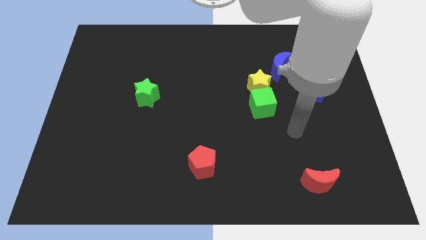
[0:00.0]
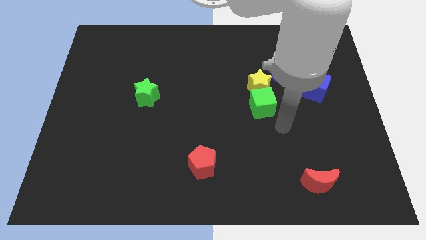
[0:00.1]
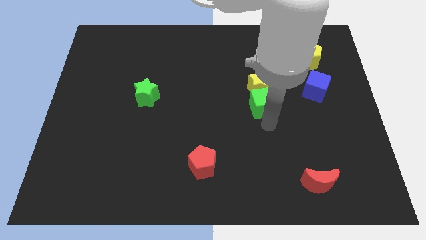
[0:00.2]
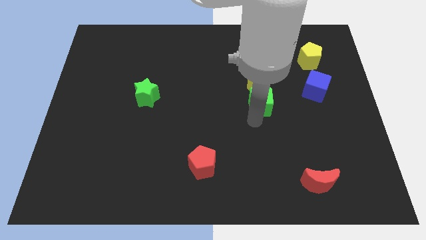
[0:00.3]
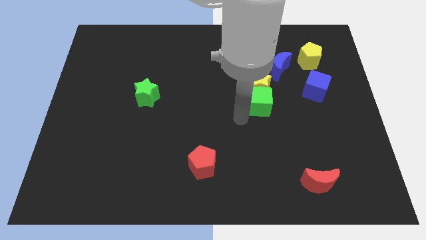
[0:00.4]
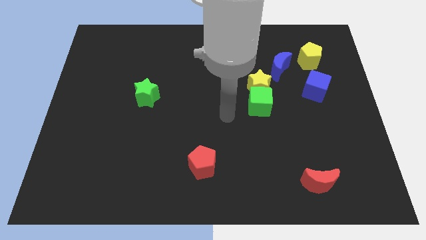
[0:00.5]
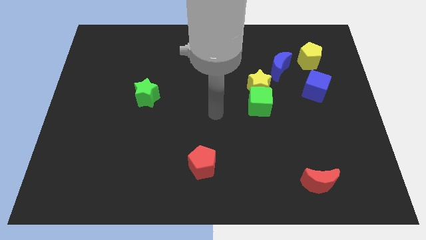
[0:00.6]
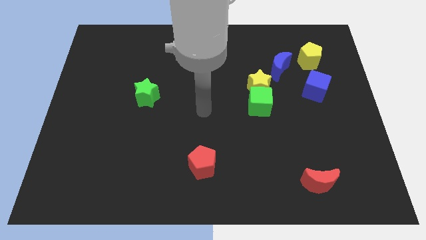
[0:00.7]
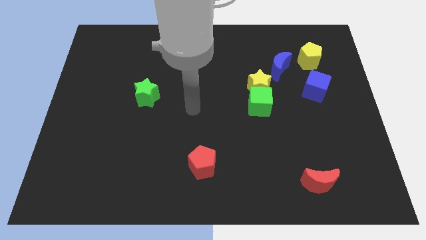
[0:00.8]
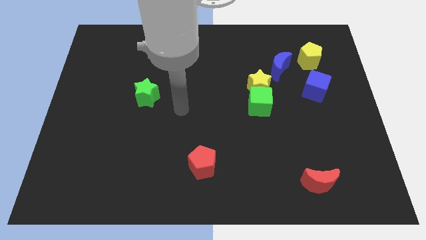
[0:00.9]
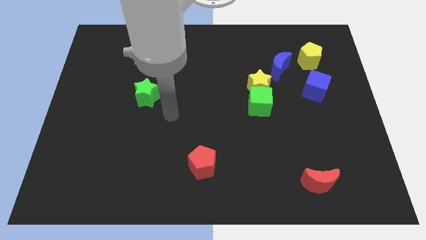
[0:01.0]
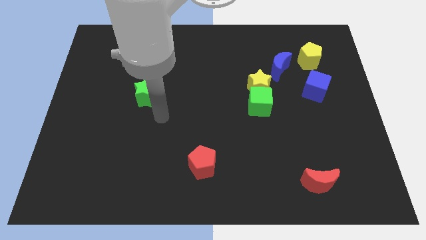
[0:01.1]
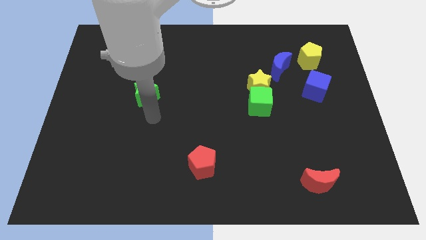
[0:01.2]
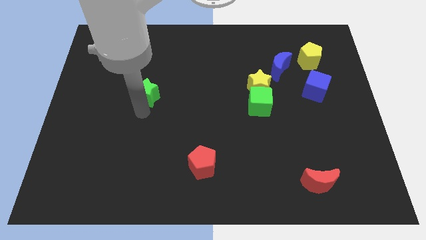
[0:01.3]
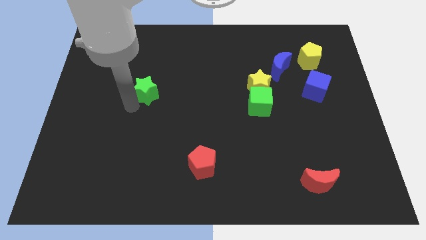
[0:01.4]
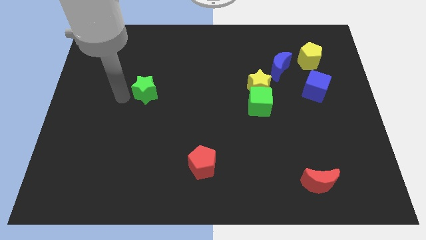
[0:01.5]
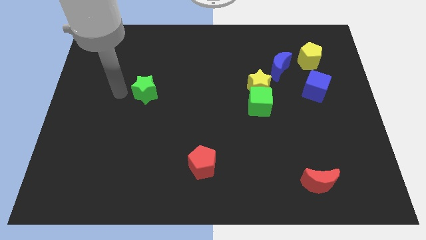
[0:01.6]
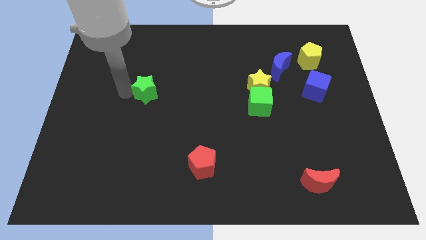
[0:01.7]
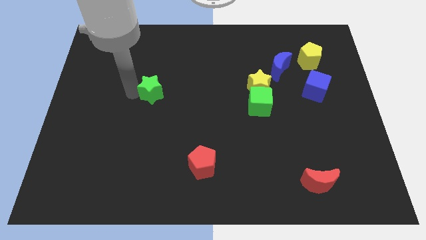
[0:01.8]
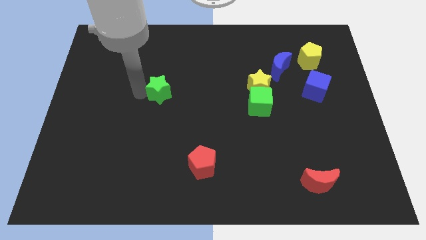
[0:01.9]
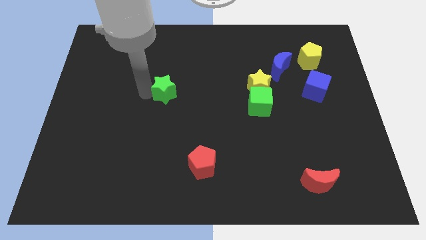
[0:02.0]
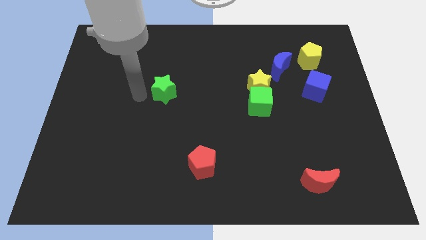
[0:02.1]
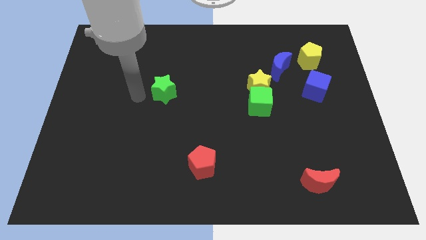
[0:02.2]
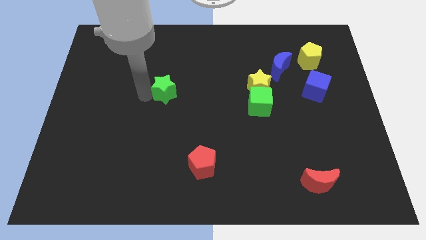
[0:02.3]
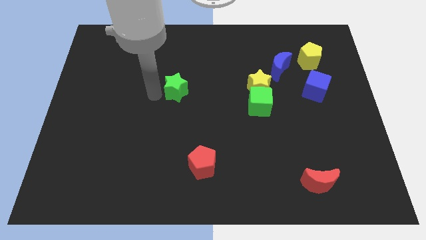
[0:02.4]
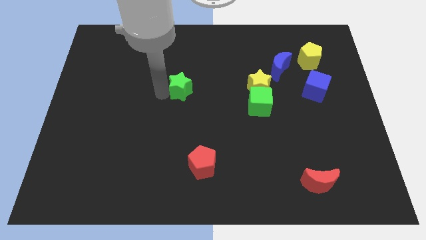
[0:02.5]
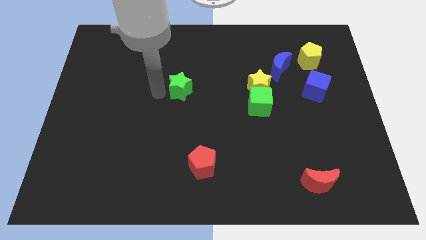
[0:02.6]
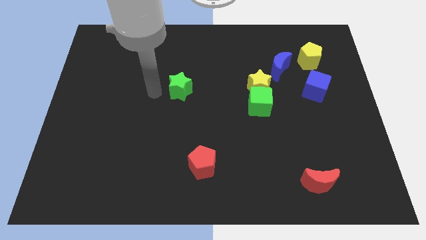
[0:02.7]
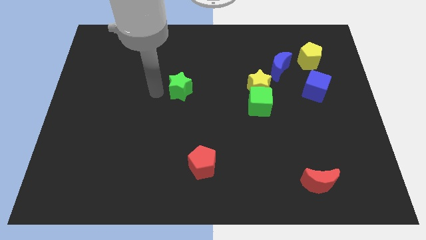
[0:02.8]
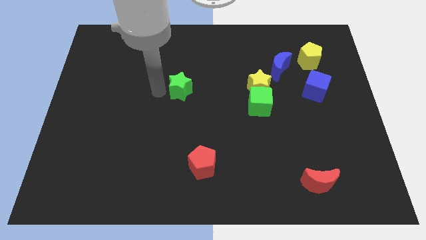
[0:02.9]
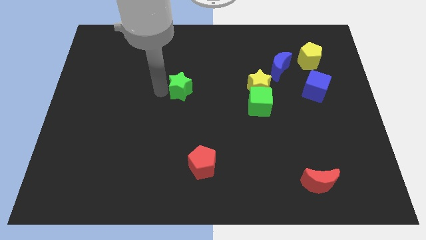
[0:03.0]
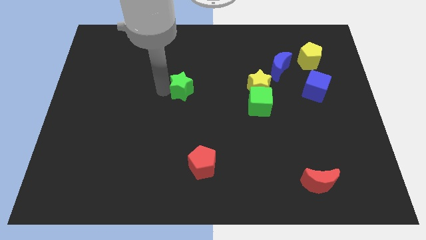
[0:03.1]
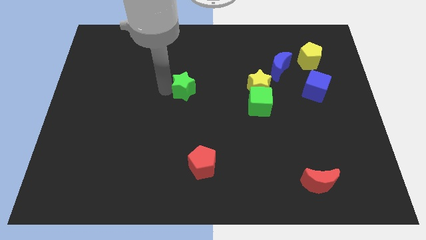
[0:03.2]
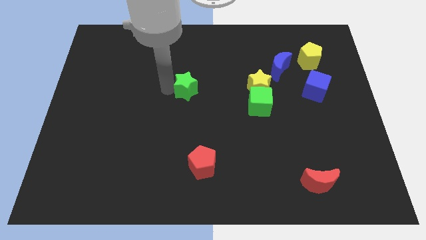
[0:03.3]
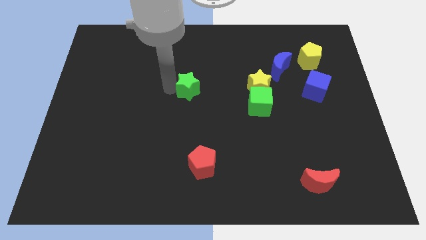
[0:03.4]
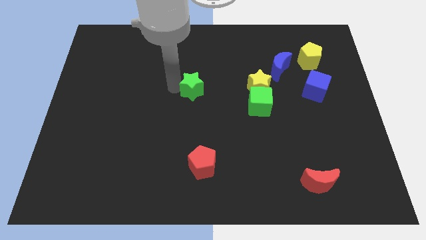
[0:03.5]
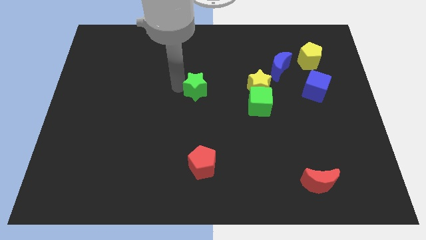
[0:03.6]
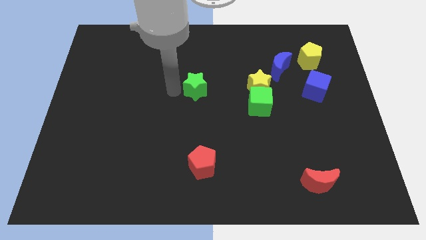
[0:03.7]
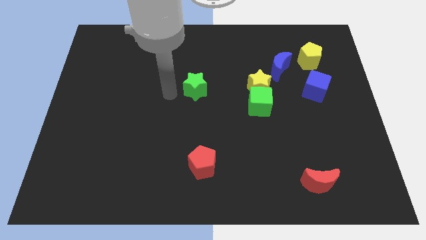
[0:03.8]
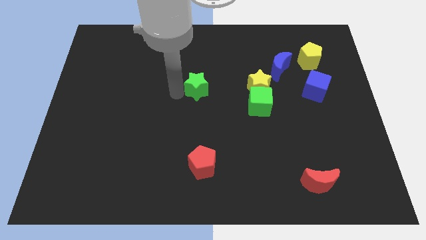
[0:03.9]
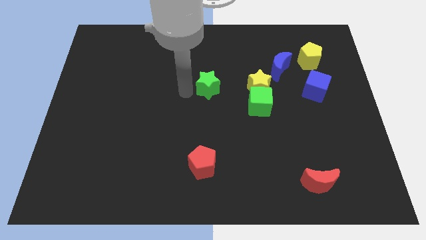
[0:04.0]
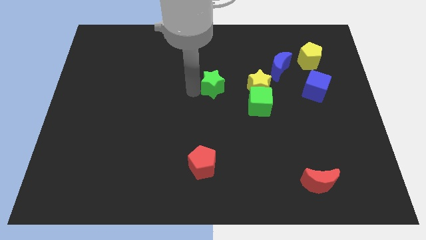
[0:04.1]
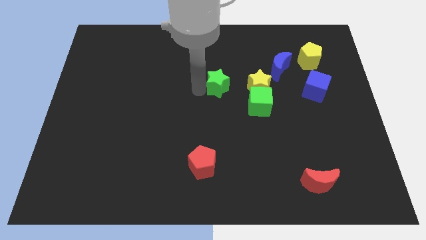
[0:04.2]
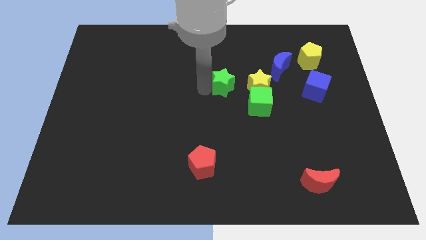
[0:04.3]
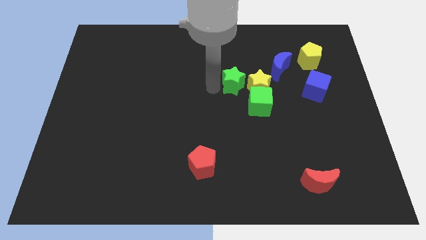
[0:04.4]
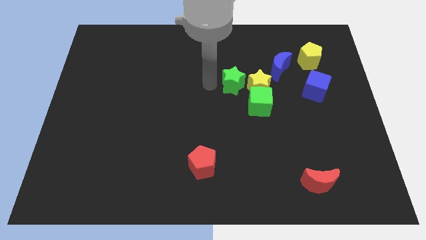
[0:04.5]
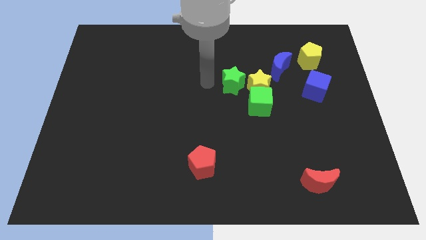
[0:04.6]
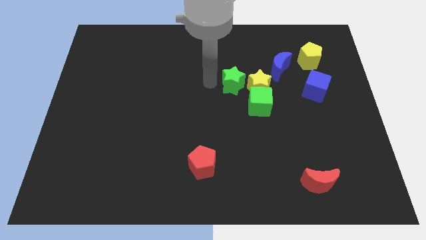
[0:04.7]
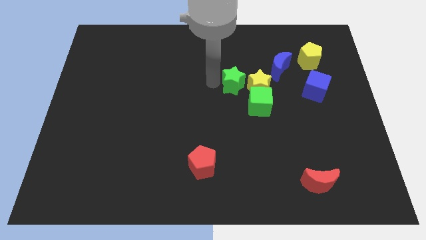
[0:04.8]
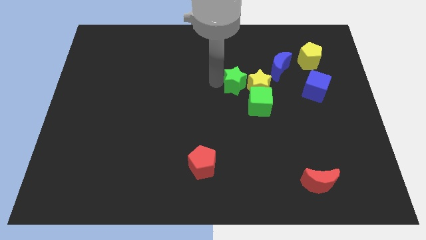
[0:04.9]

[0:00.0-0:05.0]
push the green star towards the yellow star

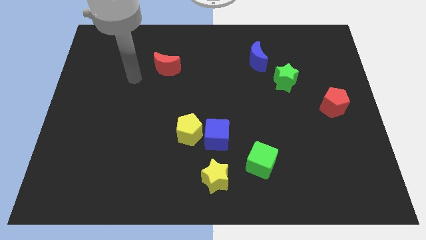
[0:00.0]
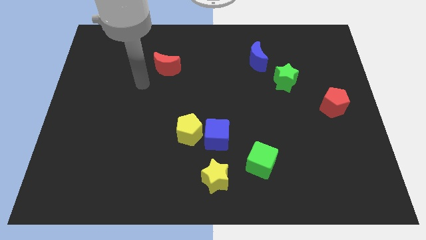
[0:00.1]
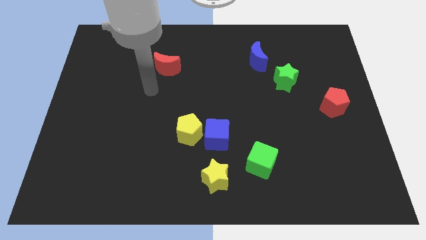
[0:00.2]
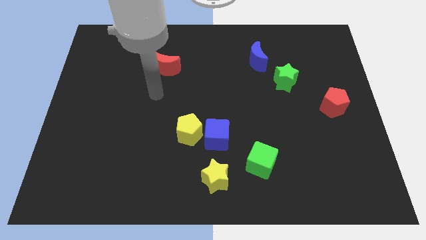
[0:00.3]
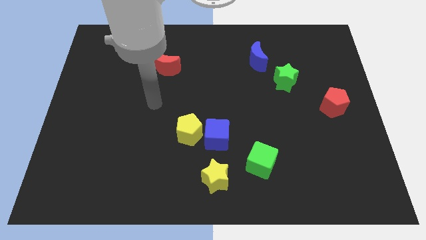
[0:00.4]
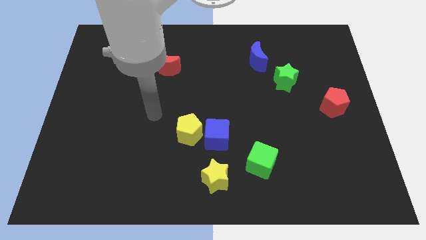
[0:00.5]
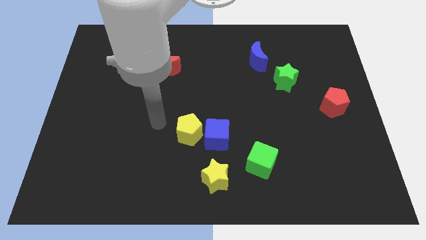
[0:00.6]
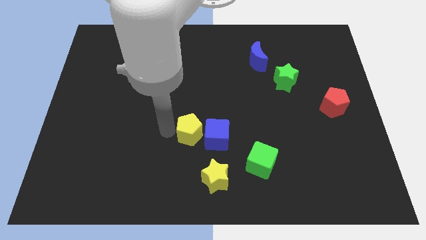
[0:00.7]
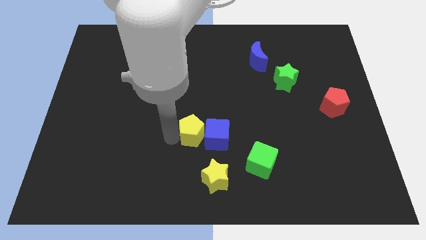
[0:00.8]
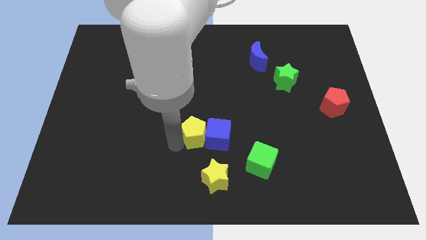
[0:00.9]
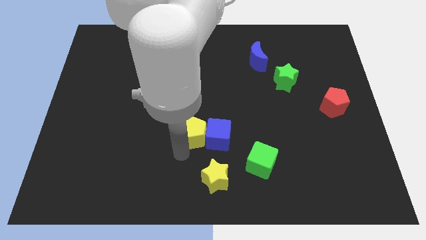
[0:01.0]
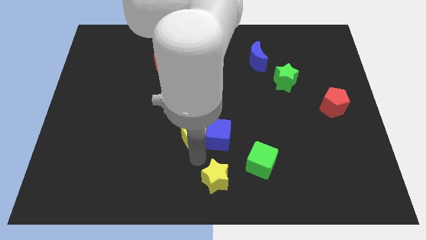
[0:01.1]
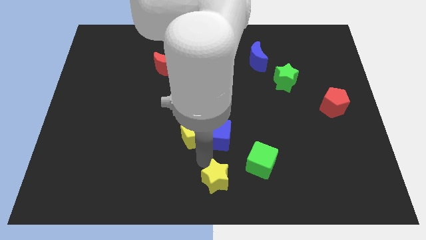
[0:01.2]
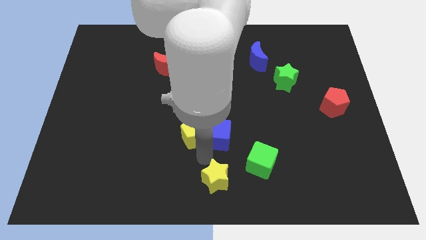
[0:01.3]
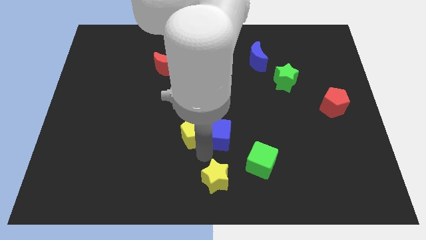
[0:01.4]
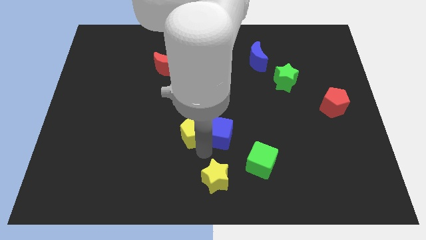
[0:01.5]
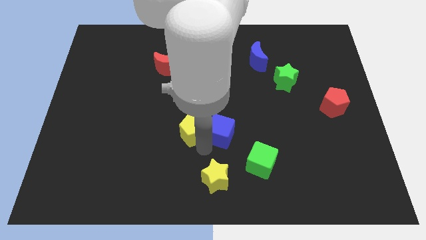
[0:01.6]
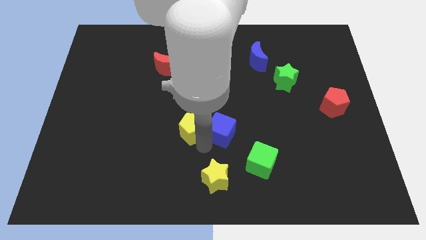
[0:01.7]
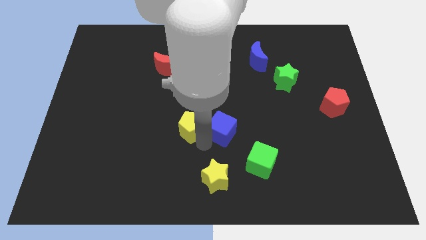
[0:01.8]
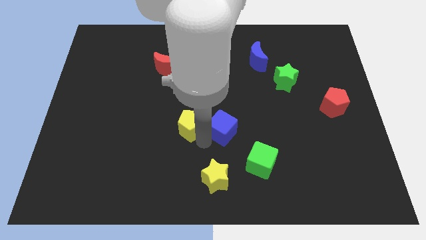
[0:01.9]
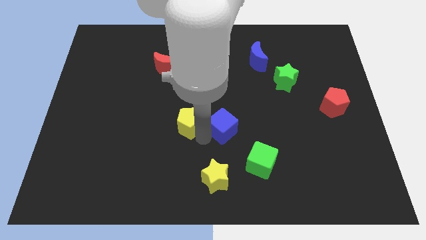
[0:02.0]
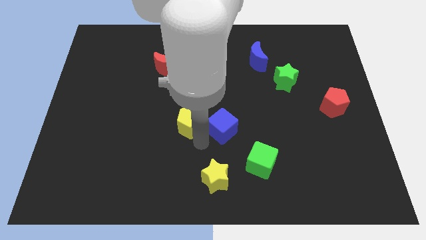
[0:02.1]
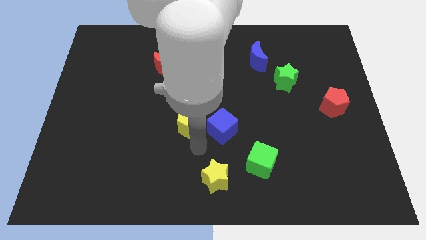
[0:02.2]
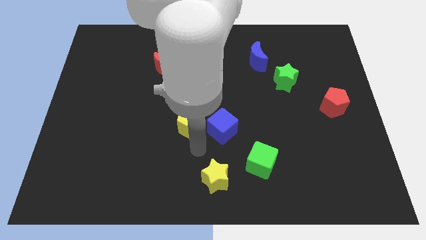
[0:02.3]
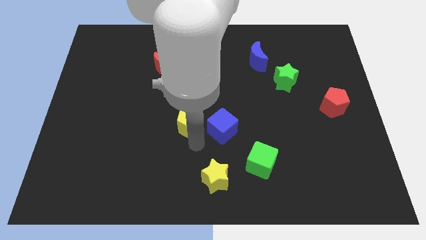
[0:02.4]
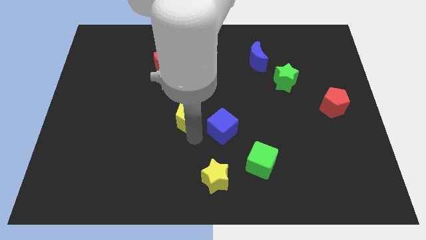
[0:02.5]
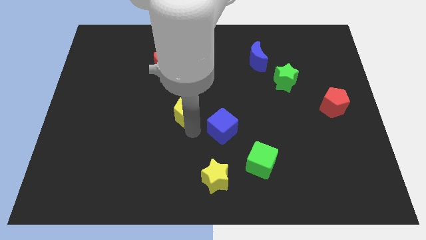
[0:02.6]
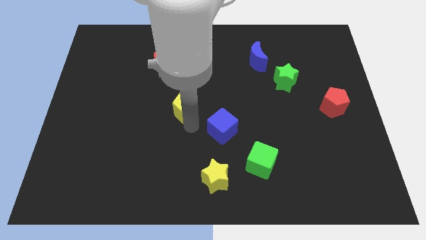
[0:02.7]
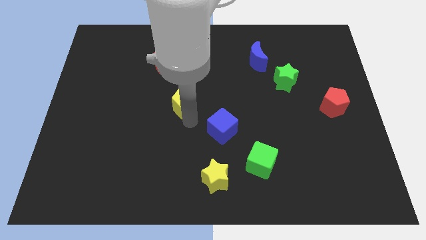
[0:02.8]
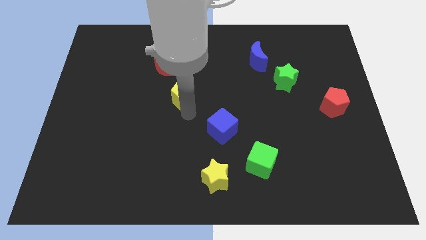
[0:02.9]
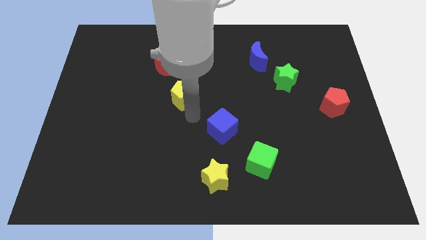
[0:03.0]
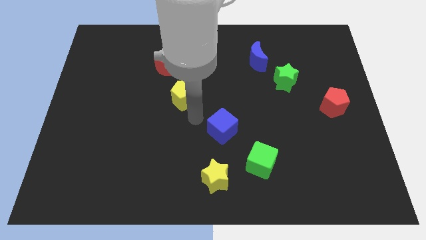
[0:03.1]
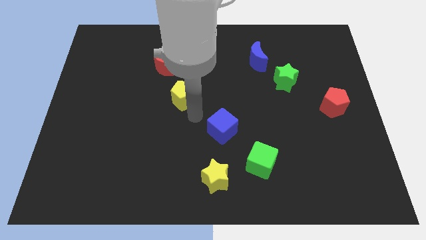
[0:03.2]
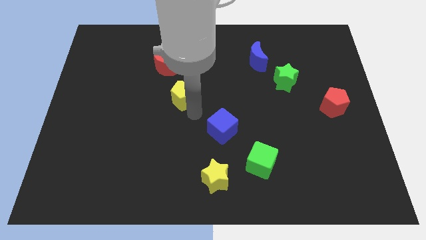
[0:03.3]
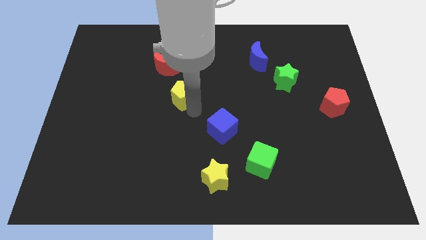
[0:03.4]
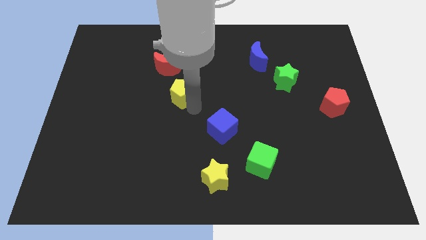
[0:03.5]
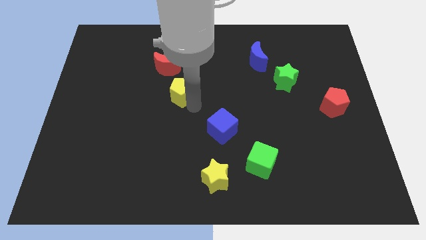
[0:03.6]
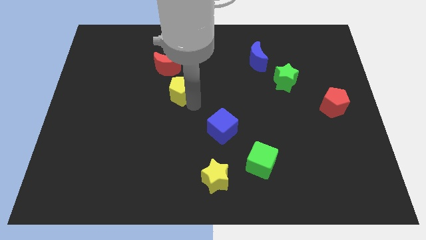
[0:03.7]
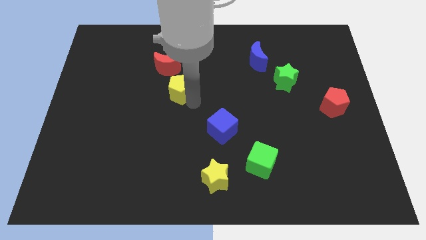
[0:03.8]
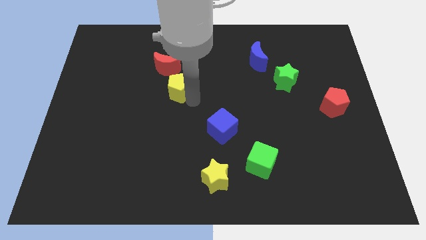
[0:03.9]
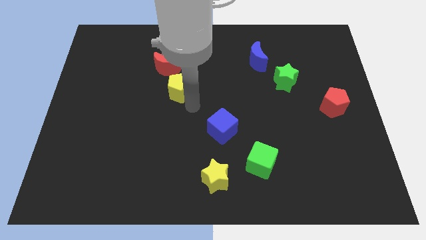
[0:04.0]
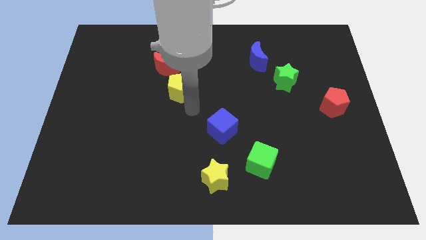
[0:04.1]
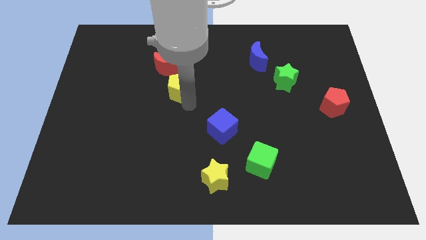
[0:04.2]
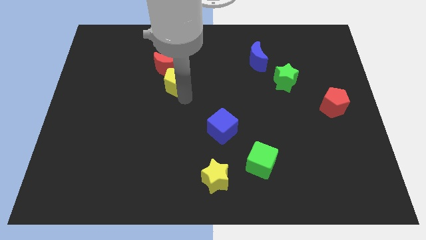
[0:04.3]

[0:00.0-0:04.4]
slide the yellow pentagon next to the red moon
